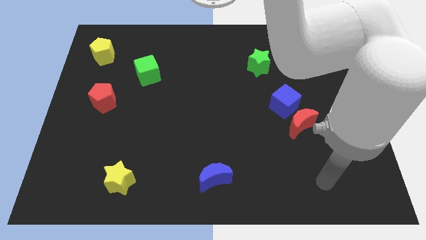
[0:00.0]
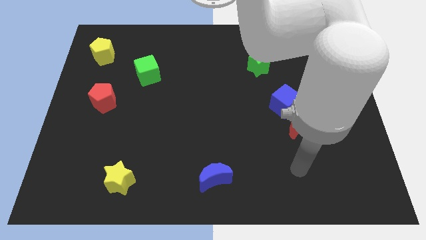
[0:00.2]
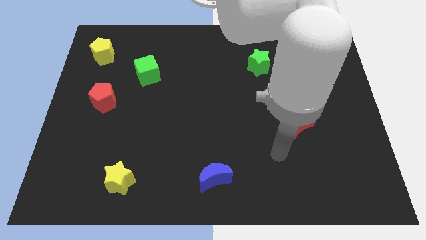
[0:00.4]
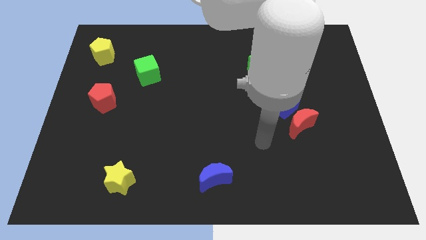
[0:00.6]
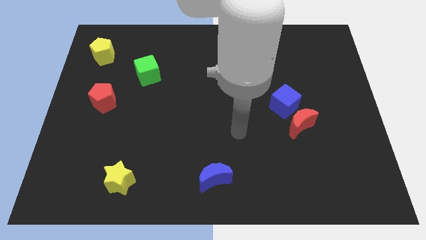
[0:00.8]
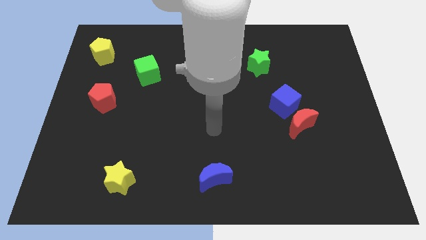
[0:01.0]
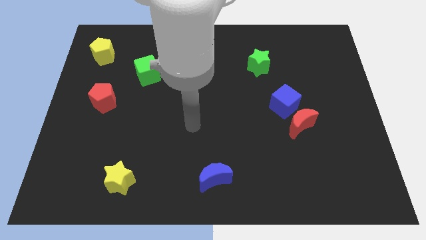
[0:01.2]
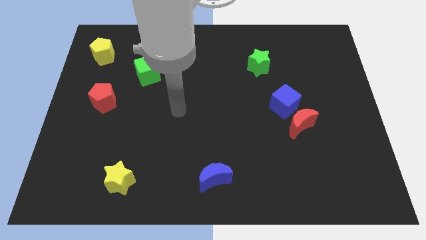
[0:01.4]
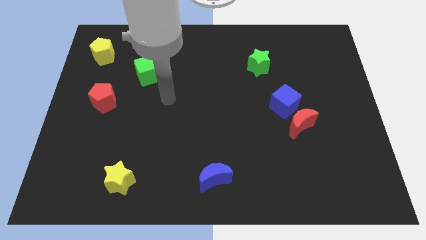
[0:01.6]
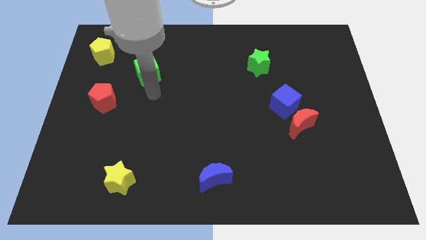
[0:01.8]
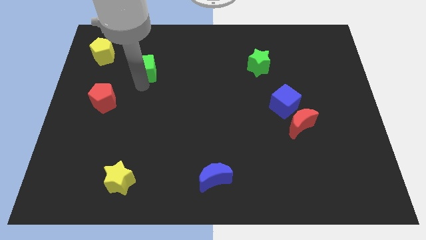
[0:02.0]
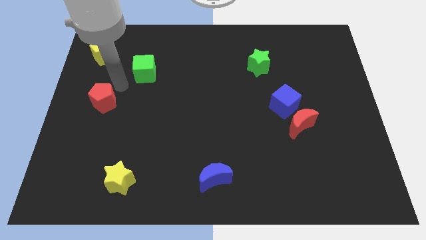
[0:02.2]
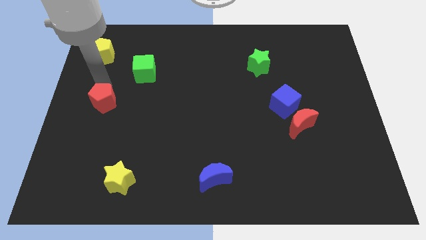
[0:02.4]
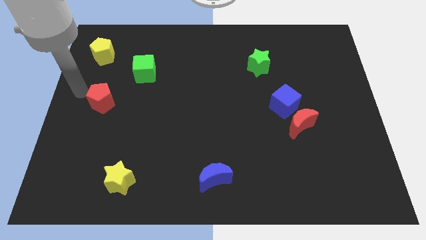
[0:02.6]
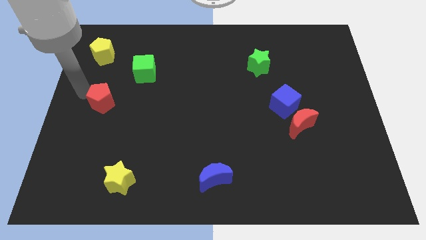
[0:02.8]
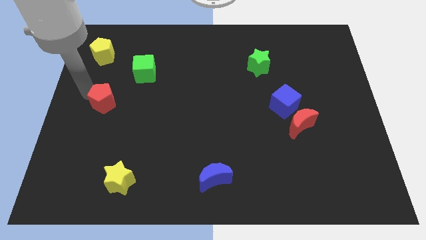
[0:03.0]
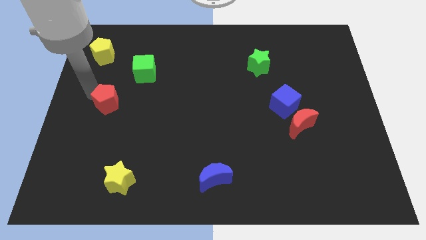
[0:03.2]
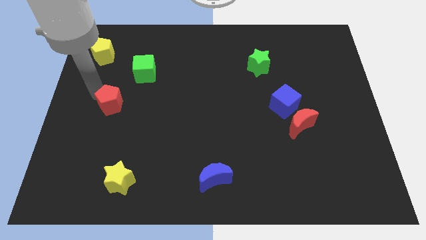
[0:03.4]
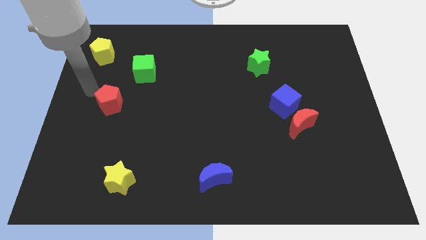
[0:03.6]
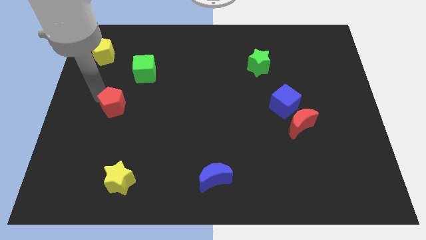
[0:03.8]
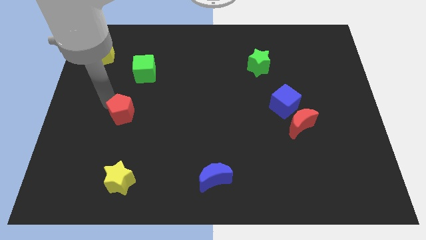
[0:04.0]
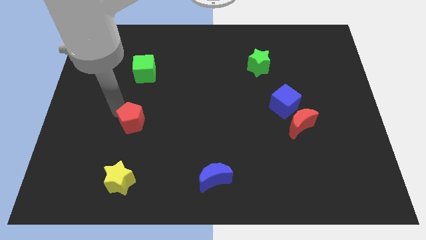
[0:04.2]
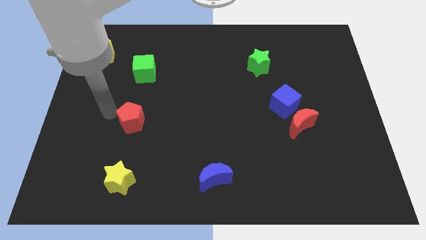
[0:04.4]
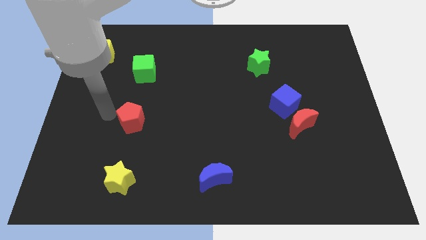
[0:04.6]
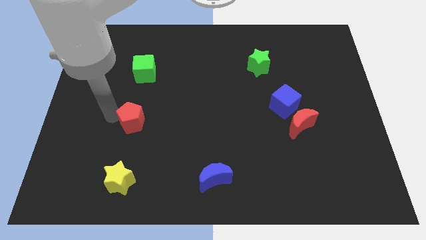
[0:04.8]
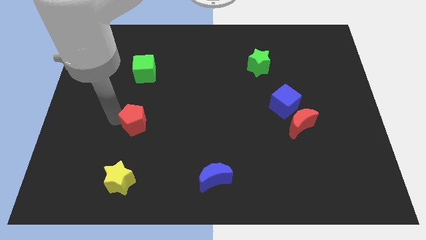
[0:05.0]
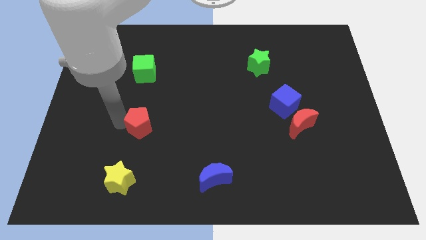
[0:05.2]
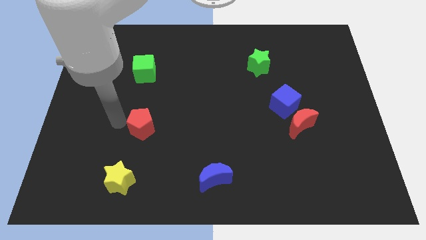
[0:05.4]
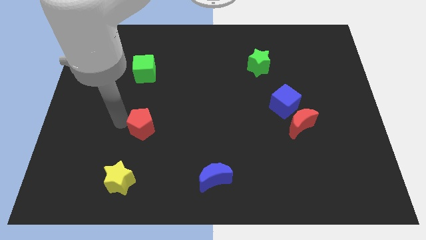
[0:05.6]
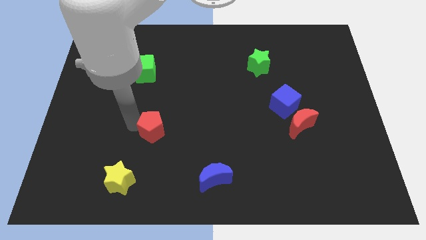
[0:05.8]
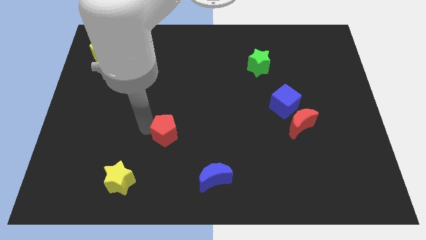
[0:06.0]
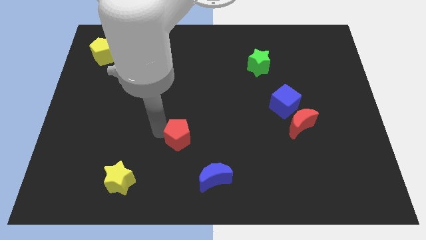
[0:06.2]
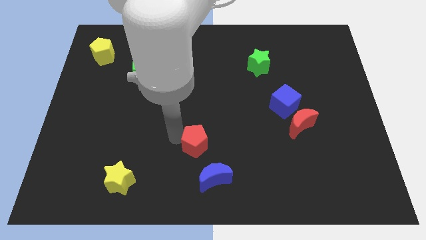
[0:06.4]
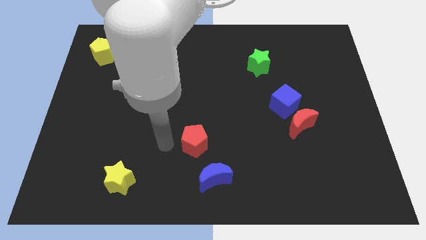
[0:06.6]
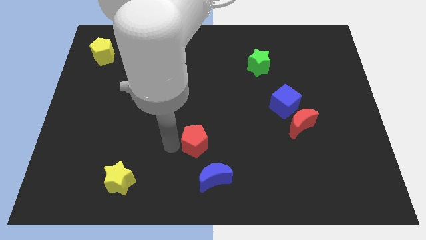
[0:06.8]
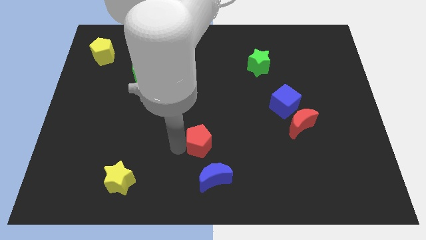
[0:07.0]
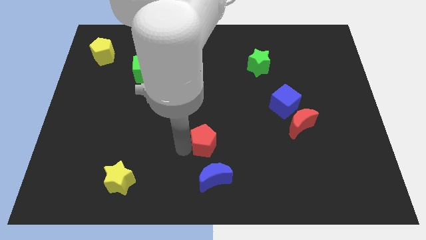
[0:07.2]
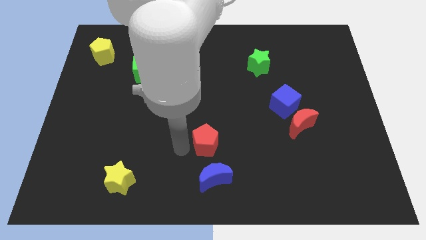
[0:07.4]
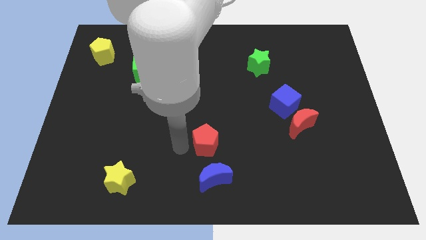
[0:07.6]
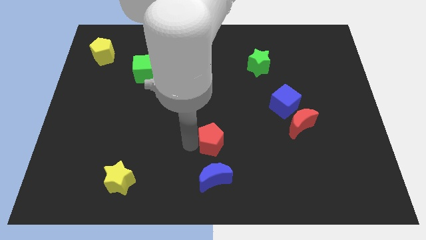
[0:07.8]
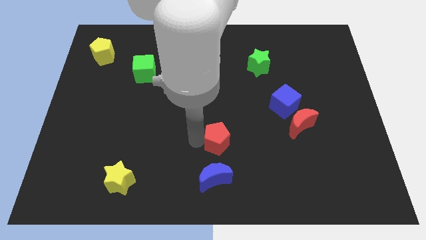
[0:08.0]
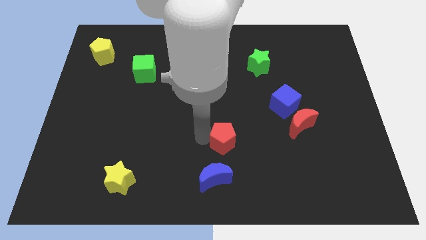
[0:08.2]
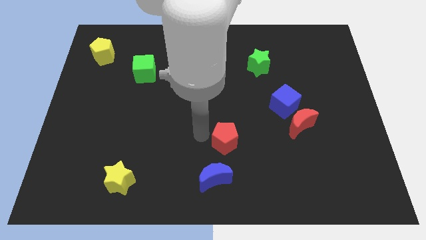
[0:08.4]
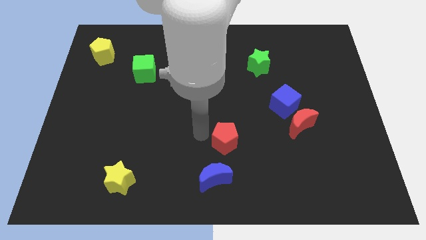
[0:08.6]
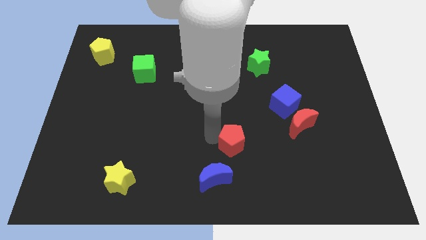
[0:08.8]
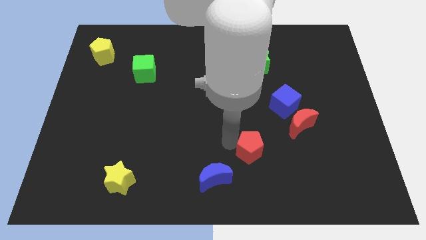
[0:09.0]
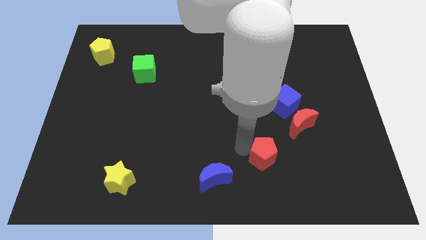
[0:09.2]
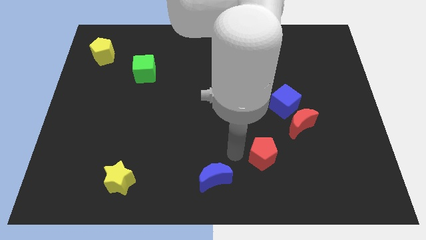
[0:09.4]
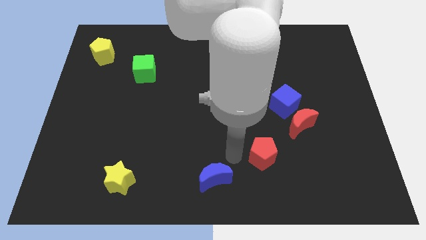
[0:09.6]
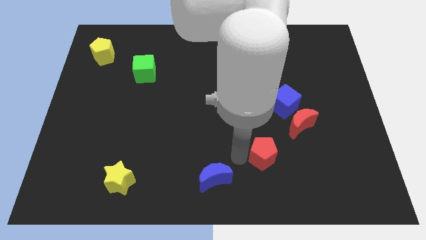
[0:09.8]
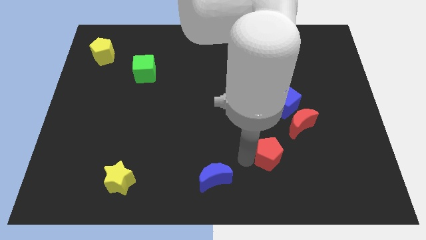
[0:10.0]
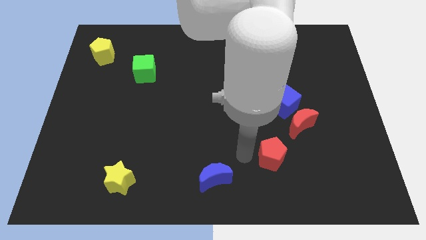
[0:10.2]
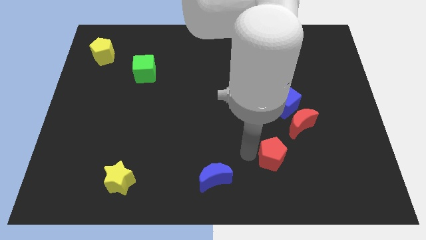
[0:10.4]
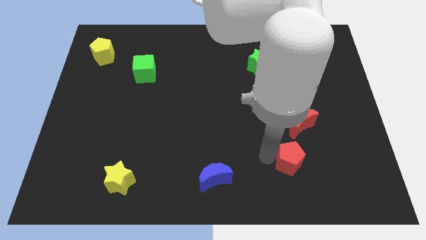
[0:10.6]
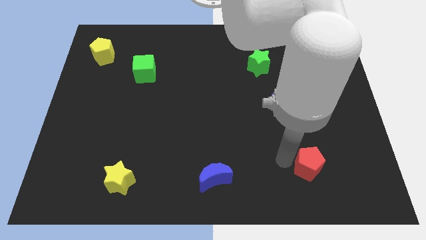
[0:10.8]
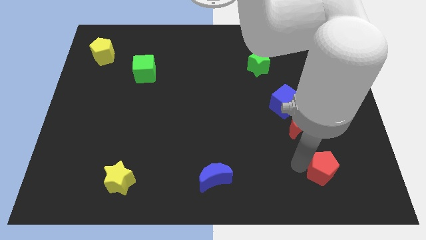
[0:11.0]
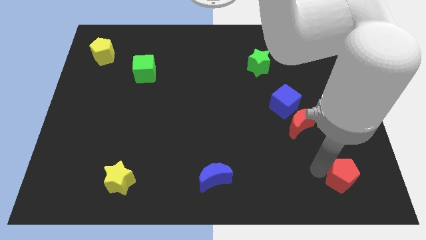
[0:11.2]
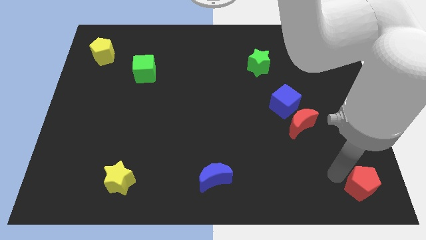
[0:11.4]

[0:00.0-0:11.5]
slide the red pentagon to the lower right corner

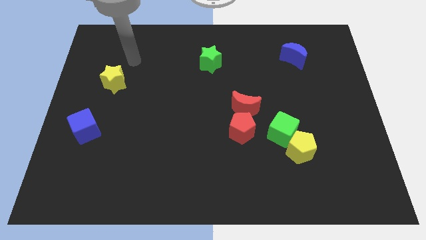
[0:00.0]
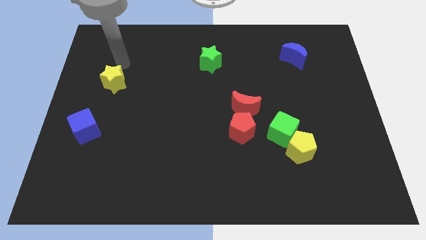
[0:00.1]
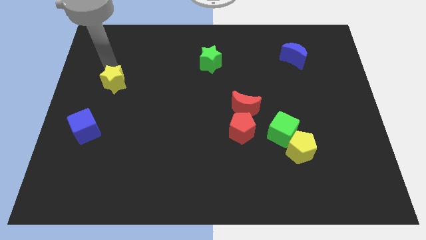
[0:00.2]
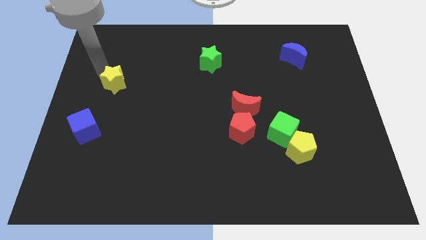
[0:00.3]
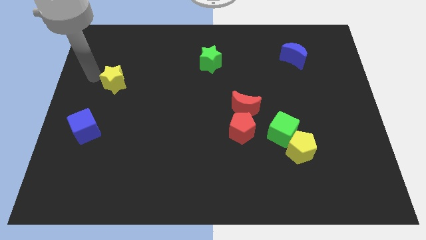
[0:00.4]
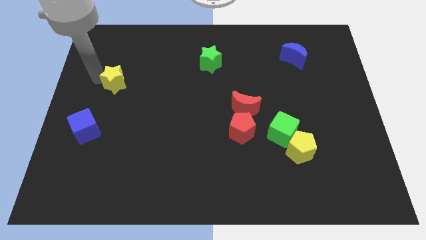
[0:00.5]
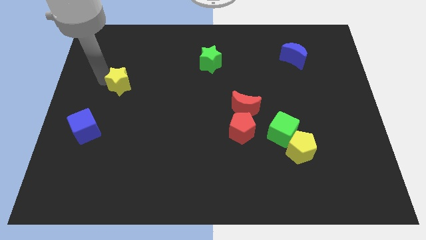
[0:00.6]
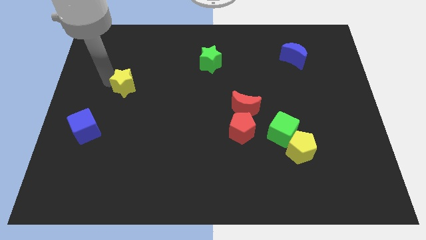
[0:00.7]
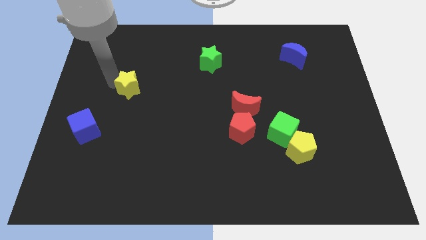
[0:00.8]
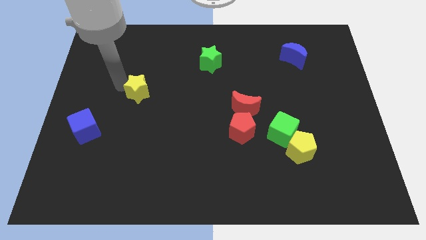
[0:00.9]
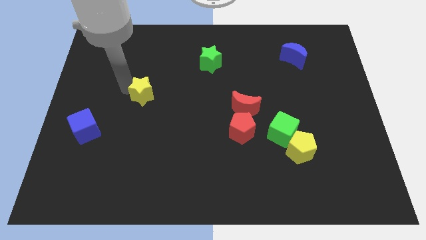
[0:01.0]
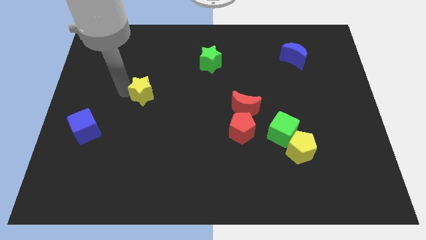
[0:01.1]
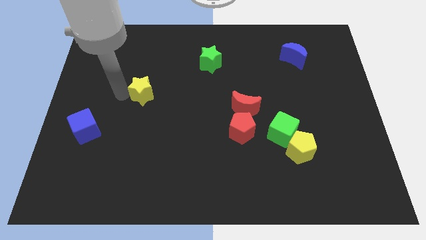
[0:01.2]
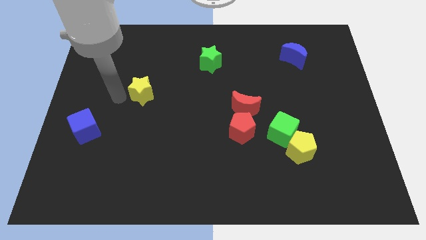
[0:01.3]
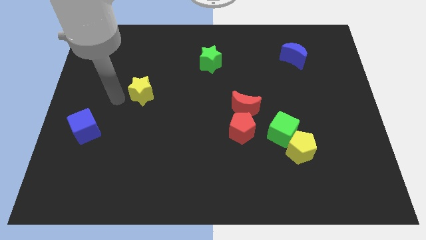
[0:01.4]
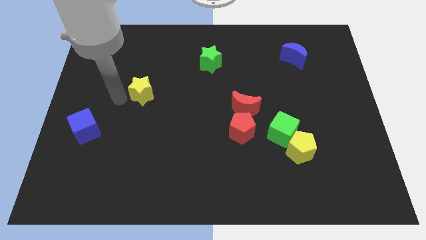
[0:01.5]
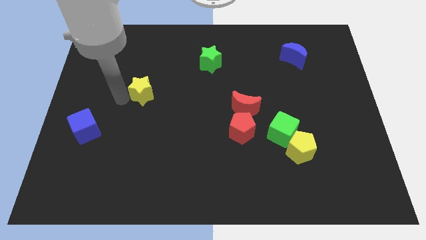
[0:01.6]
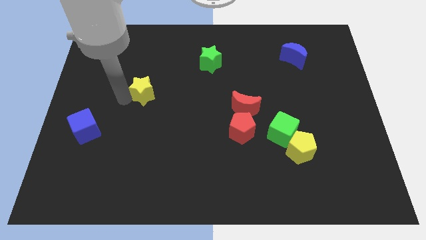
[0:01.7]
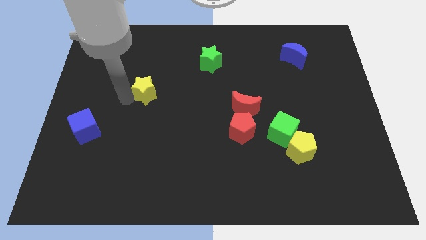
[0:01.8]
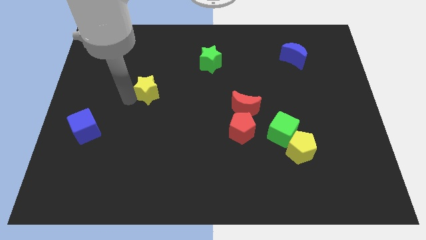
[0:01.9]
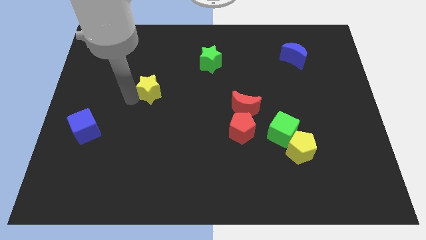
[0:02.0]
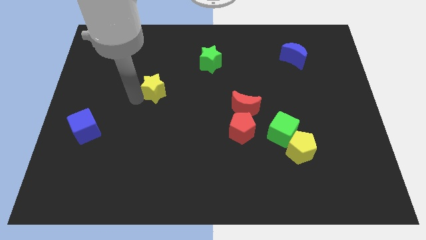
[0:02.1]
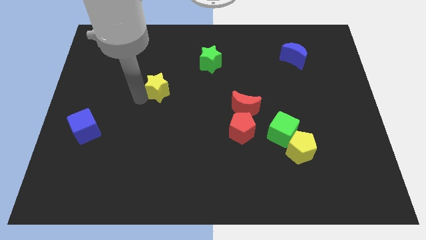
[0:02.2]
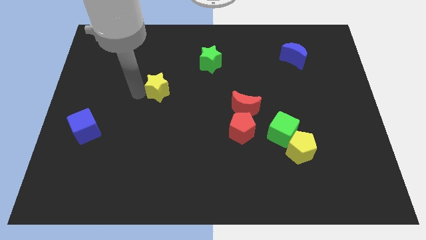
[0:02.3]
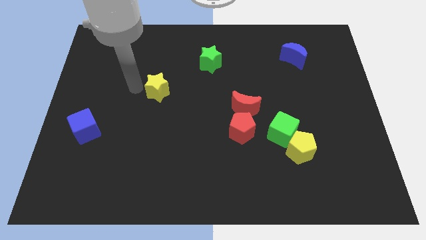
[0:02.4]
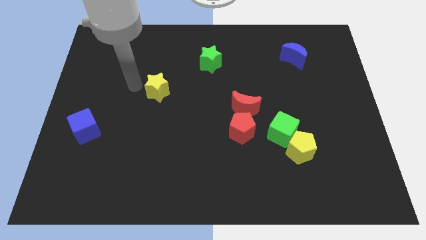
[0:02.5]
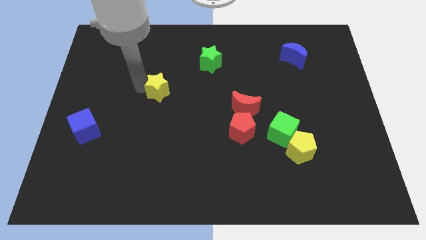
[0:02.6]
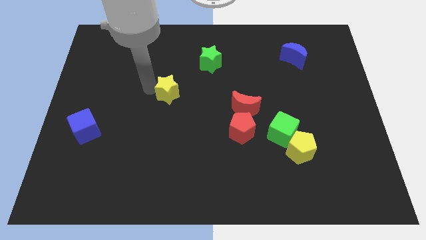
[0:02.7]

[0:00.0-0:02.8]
push the yellow star to the center of the board
